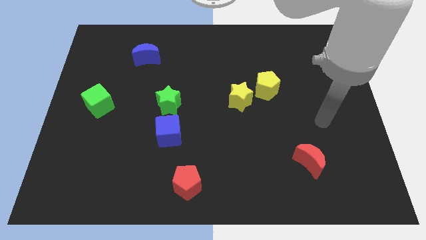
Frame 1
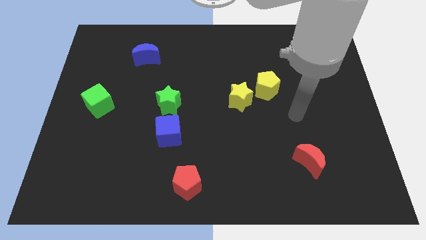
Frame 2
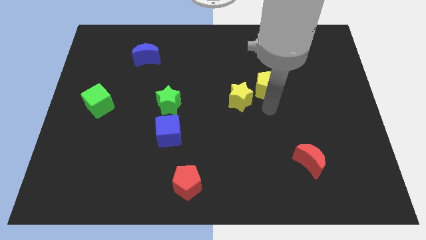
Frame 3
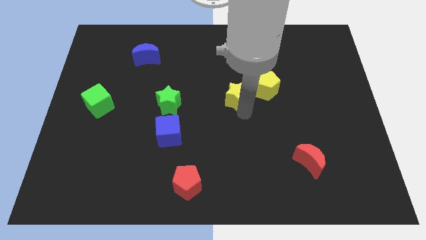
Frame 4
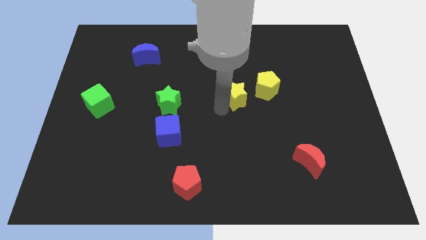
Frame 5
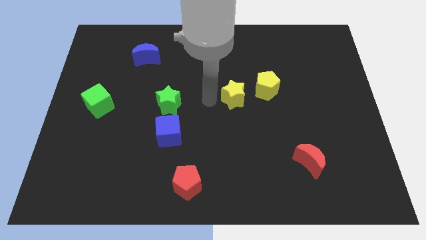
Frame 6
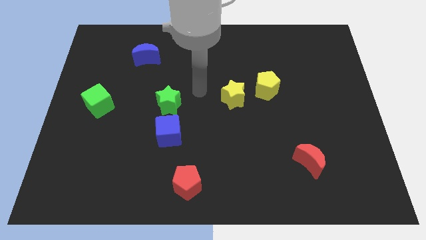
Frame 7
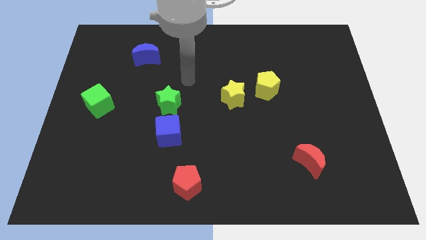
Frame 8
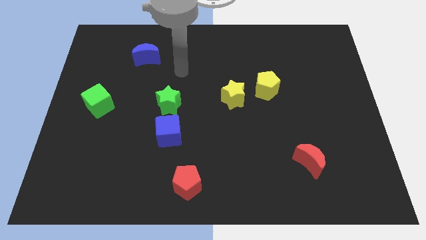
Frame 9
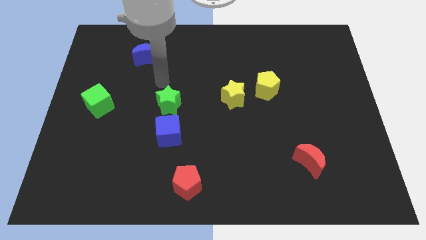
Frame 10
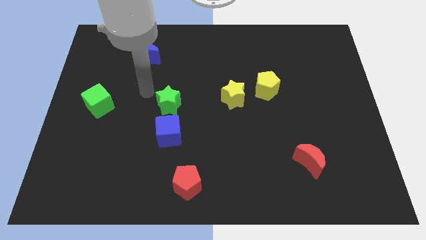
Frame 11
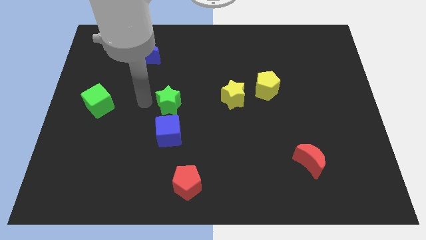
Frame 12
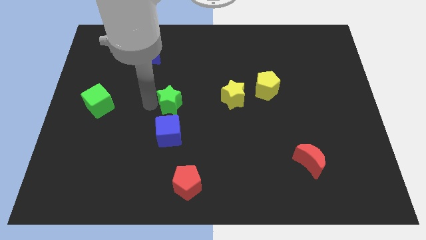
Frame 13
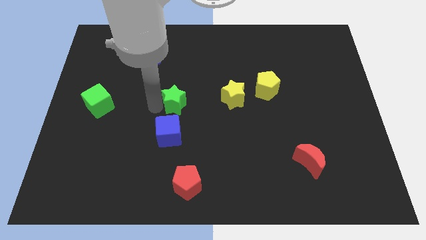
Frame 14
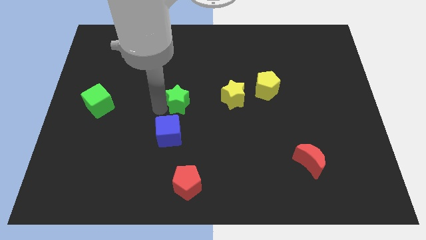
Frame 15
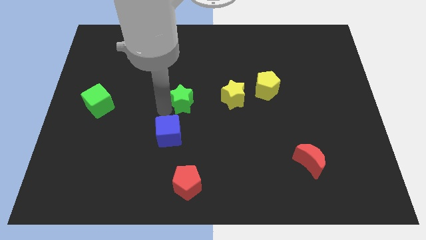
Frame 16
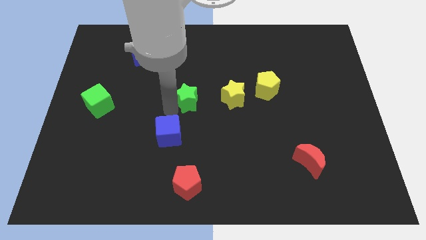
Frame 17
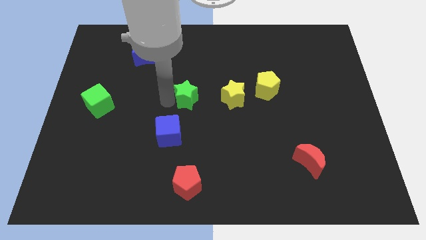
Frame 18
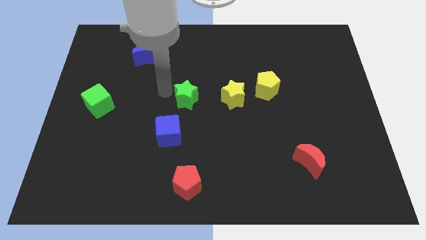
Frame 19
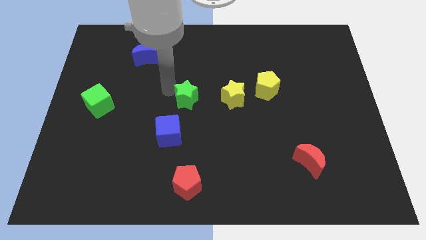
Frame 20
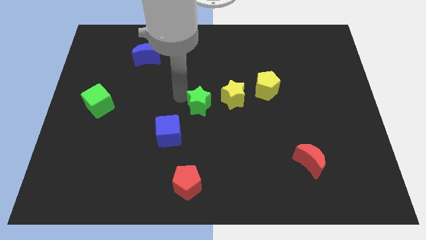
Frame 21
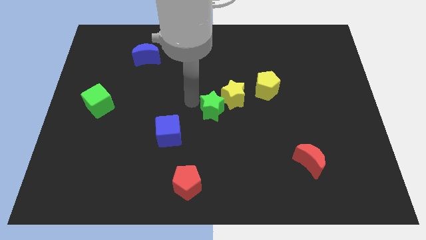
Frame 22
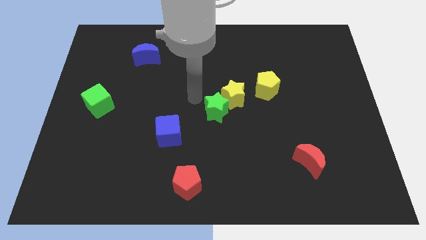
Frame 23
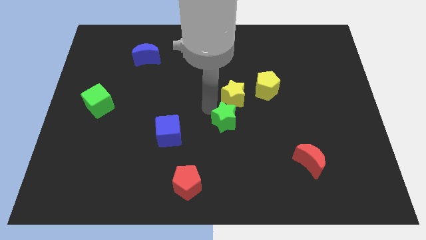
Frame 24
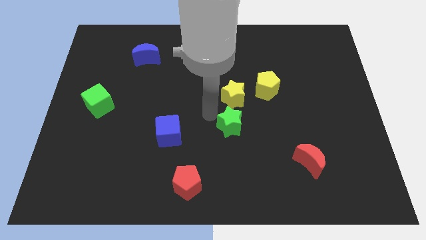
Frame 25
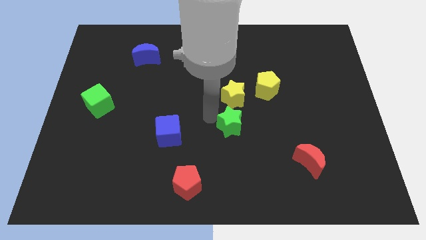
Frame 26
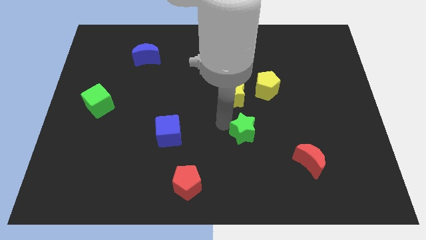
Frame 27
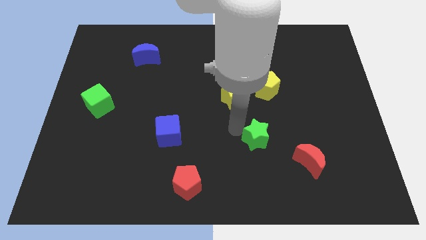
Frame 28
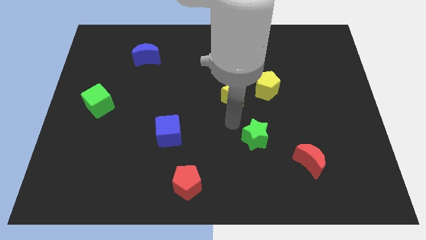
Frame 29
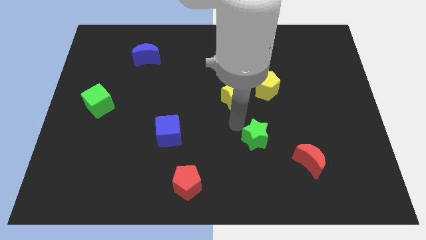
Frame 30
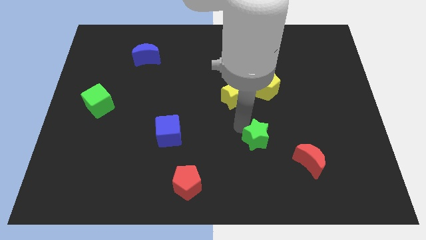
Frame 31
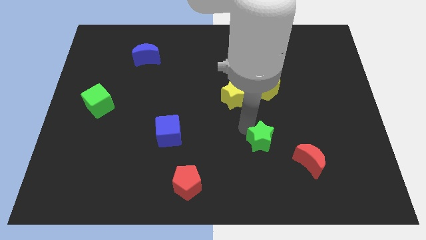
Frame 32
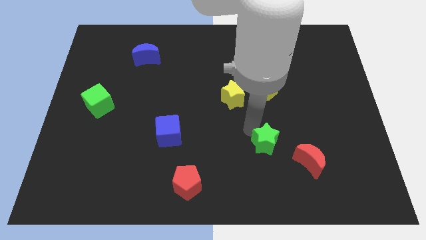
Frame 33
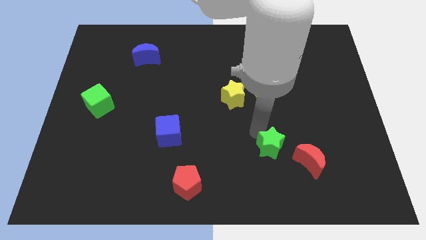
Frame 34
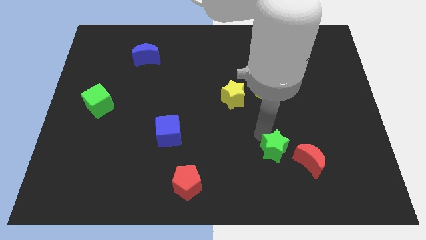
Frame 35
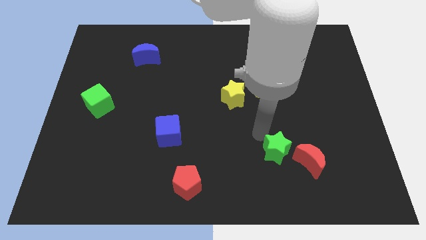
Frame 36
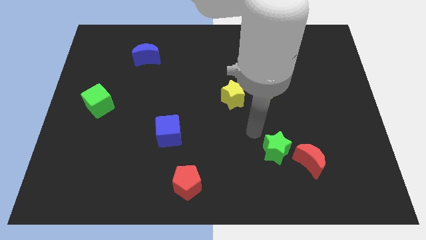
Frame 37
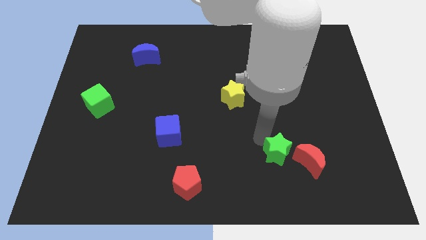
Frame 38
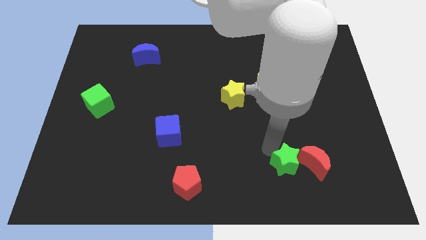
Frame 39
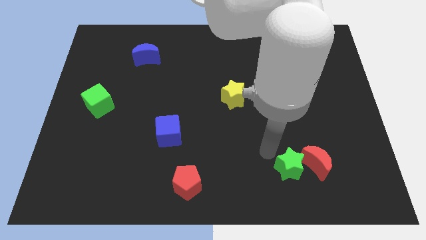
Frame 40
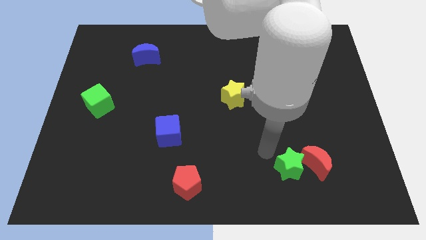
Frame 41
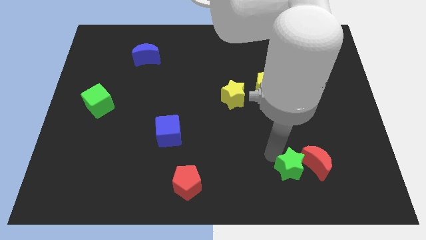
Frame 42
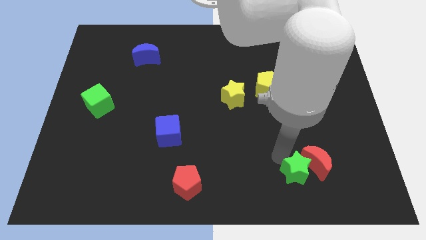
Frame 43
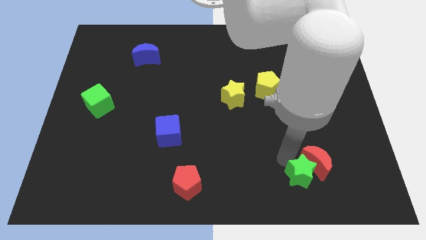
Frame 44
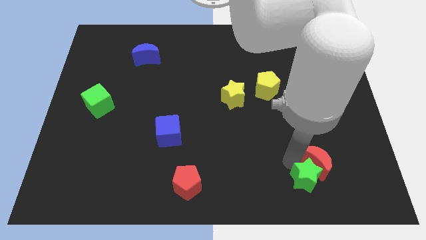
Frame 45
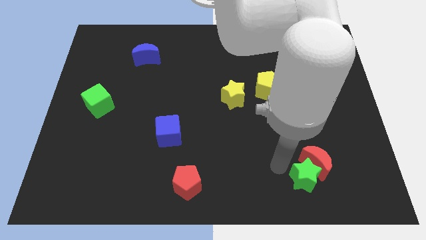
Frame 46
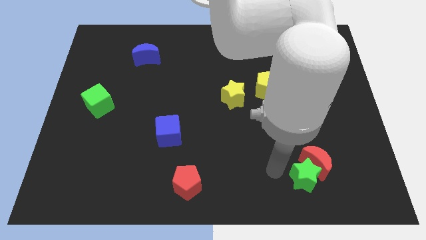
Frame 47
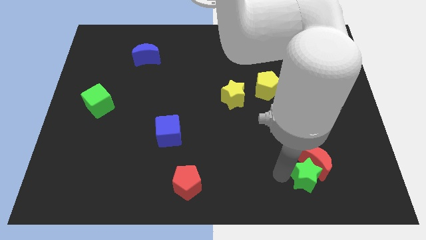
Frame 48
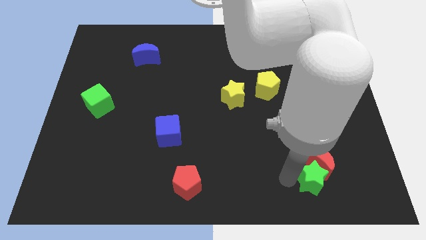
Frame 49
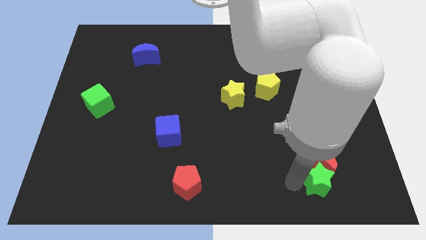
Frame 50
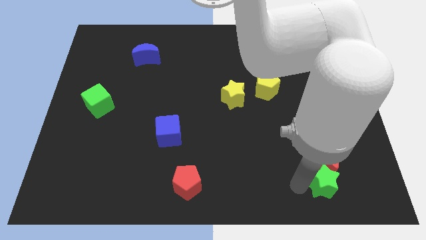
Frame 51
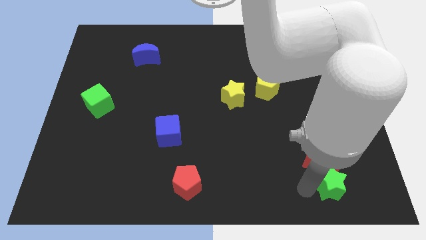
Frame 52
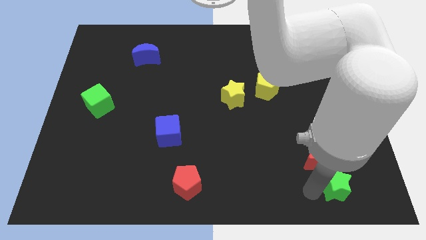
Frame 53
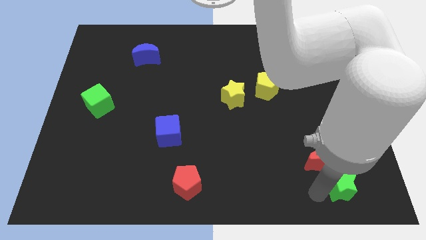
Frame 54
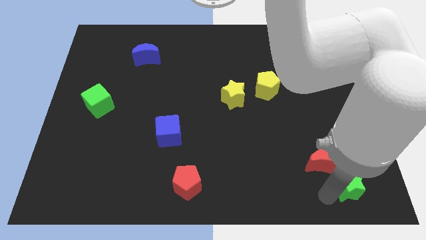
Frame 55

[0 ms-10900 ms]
move the green star to the bottom right corner

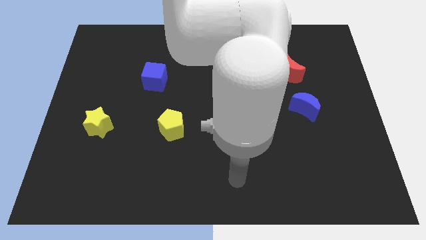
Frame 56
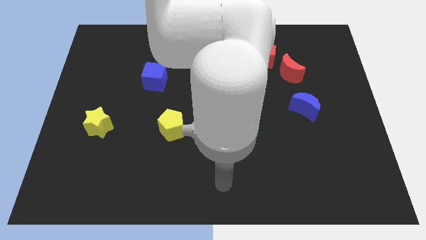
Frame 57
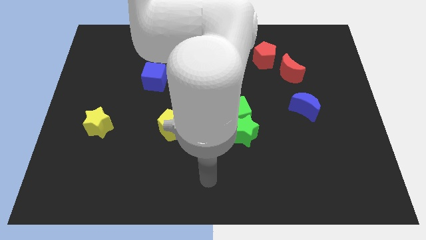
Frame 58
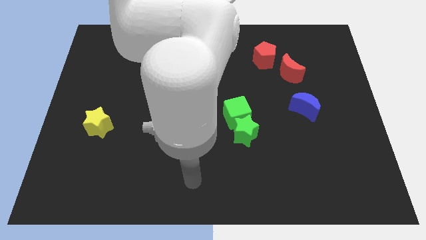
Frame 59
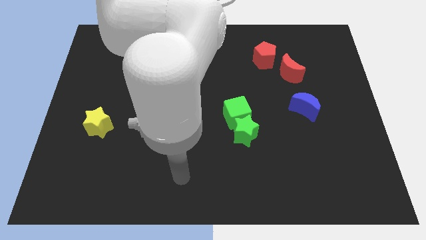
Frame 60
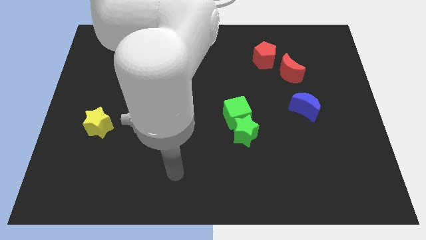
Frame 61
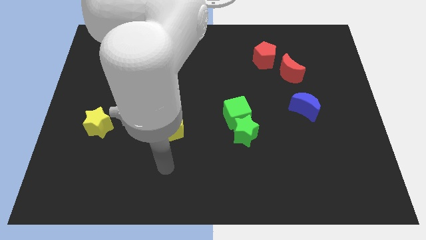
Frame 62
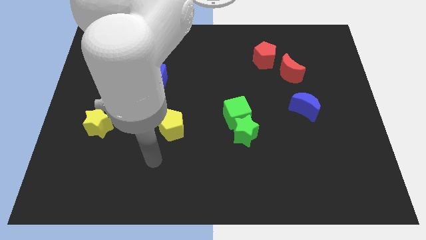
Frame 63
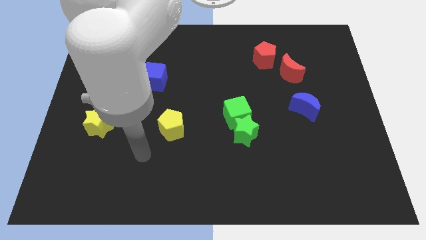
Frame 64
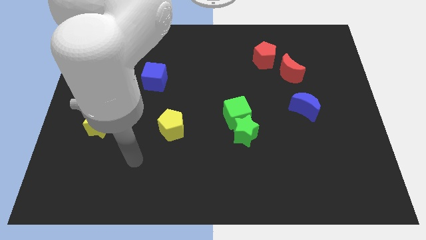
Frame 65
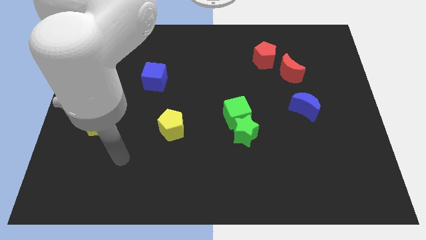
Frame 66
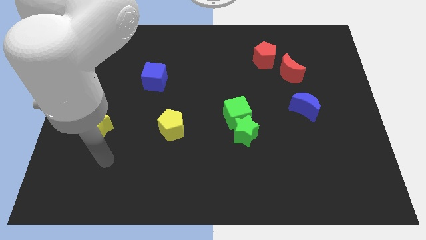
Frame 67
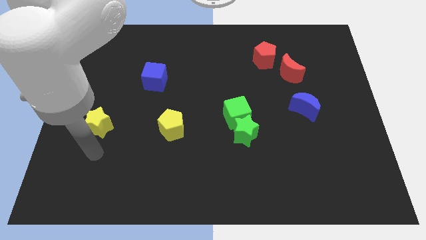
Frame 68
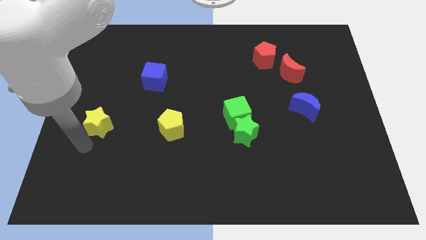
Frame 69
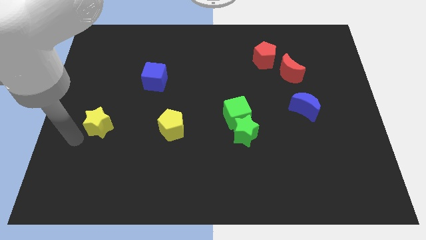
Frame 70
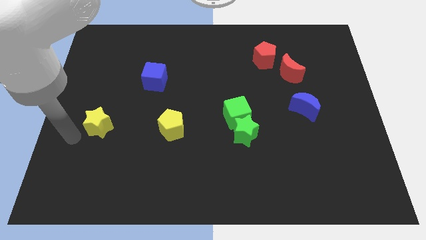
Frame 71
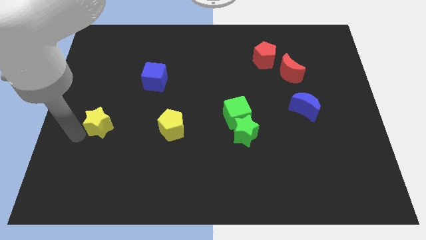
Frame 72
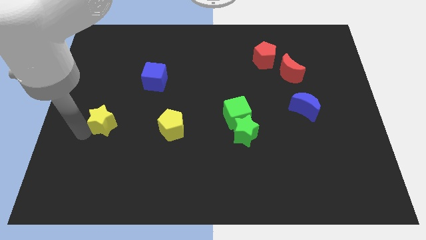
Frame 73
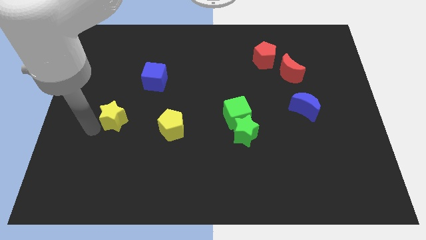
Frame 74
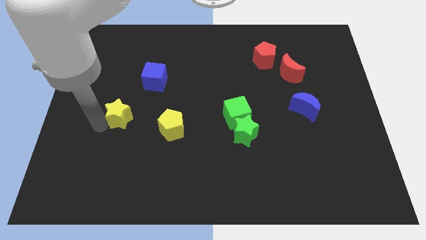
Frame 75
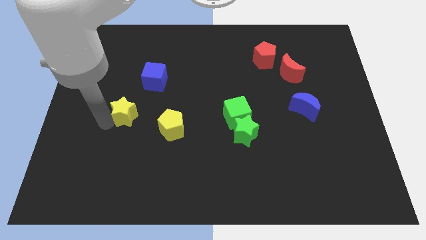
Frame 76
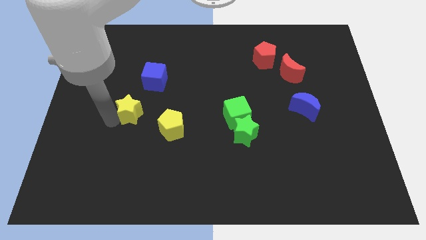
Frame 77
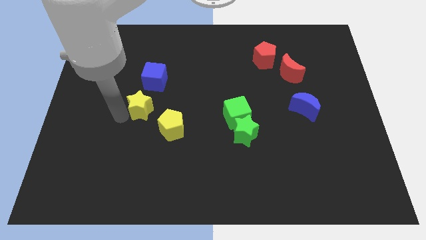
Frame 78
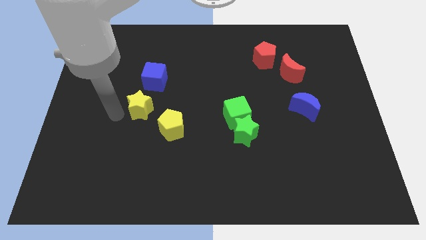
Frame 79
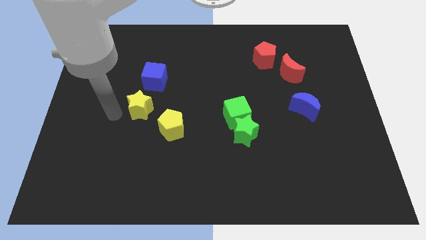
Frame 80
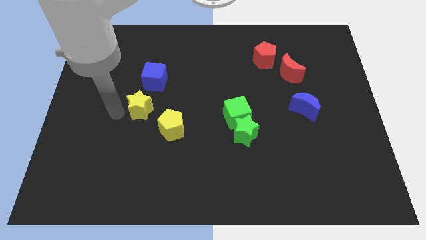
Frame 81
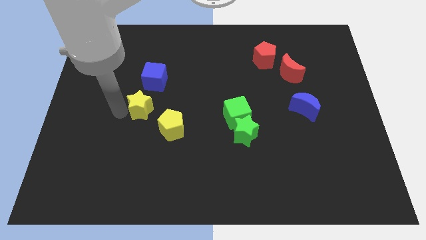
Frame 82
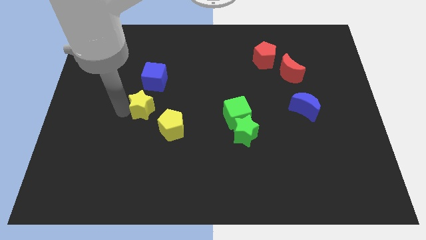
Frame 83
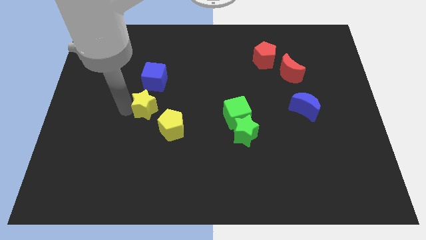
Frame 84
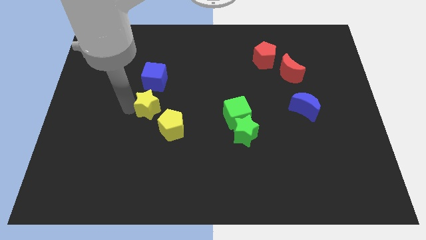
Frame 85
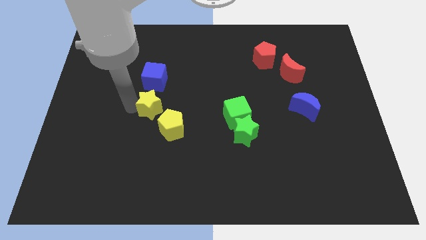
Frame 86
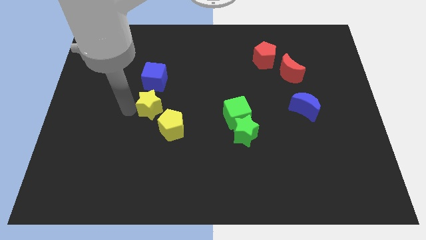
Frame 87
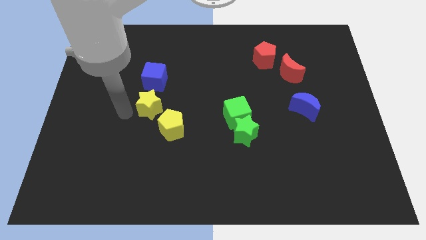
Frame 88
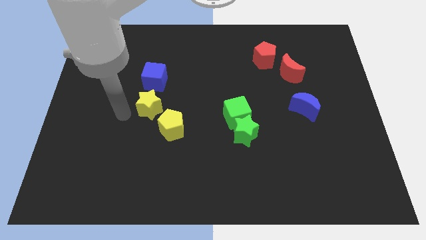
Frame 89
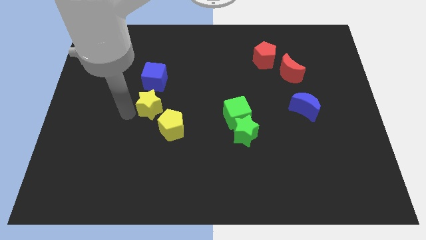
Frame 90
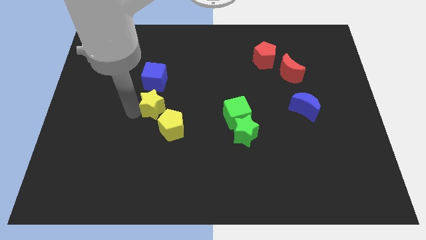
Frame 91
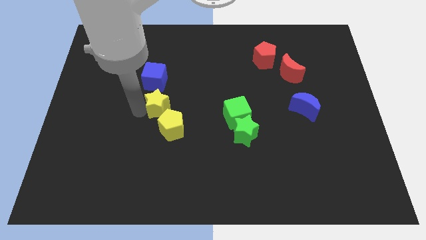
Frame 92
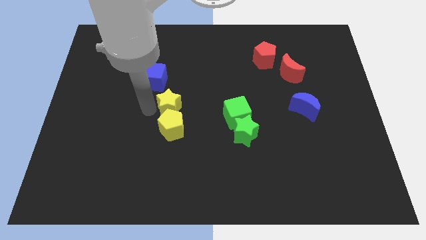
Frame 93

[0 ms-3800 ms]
slide the yellow star to the middle
